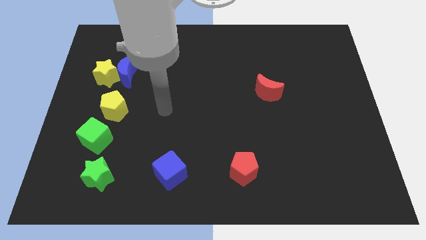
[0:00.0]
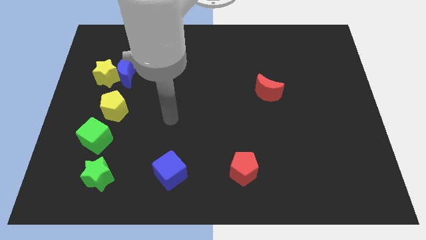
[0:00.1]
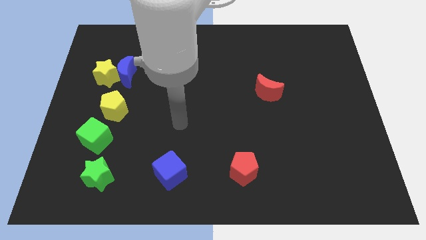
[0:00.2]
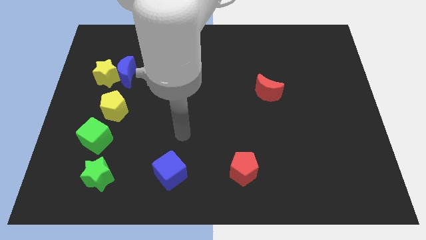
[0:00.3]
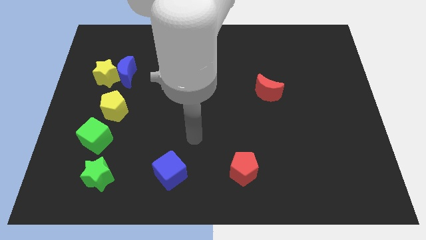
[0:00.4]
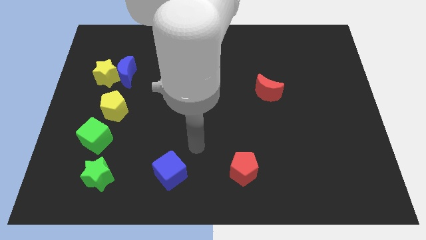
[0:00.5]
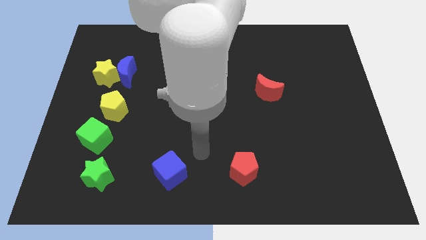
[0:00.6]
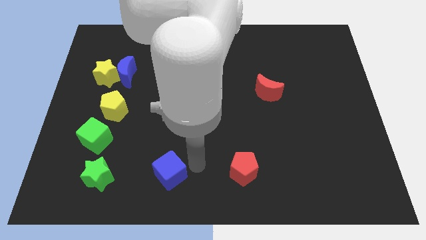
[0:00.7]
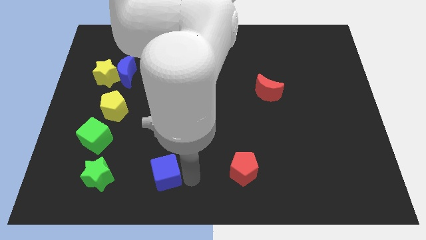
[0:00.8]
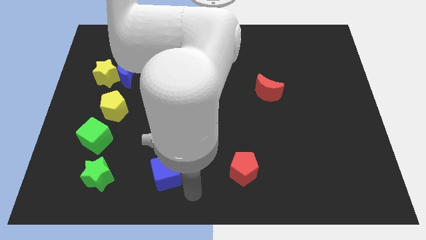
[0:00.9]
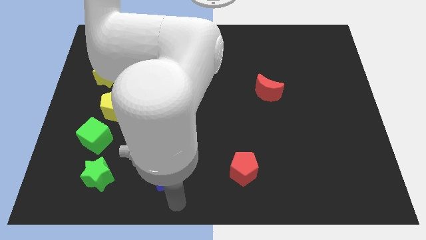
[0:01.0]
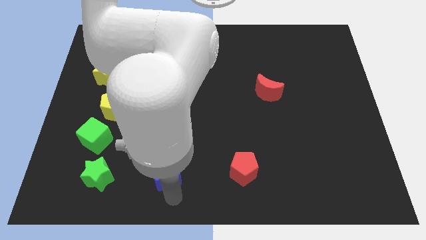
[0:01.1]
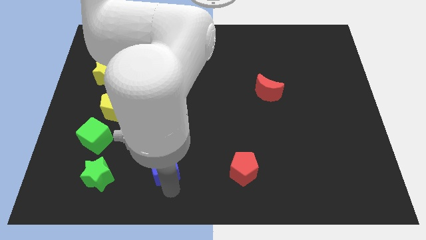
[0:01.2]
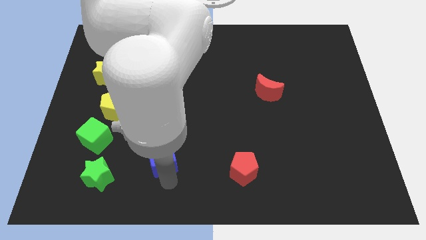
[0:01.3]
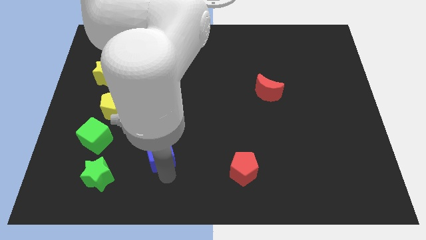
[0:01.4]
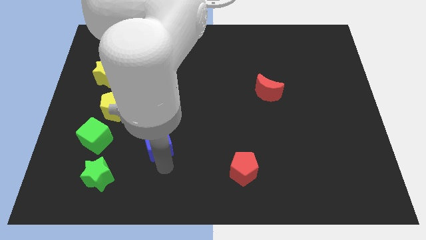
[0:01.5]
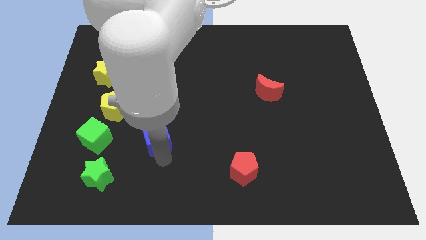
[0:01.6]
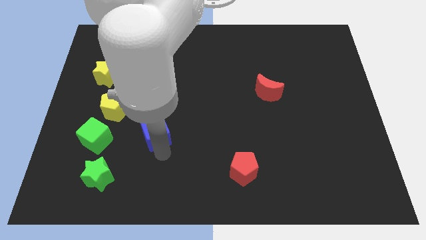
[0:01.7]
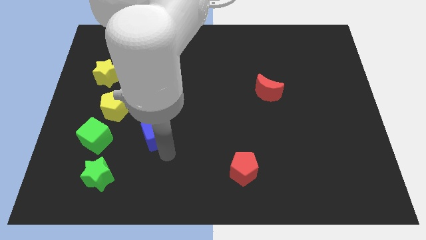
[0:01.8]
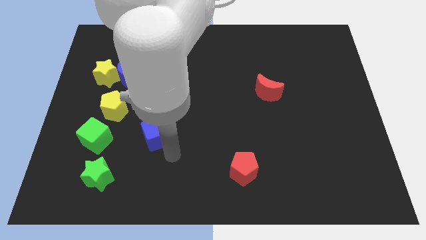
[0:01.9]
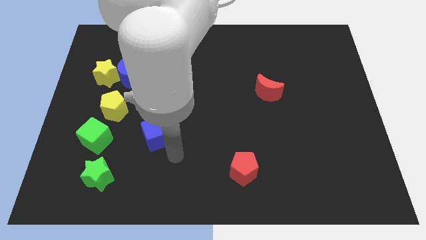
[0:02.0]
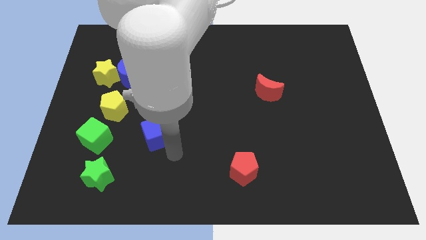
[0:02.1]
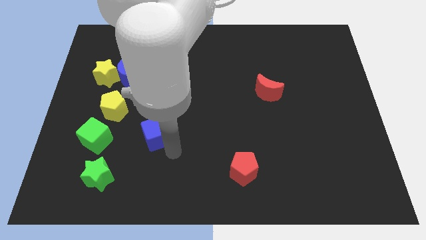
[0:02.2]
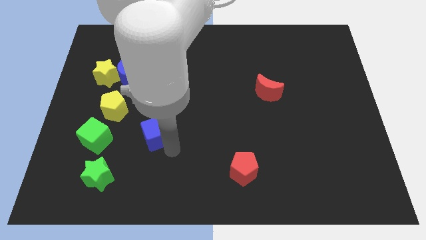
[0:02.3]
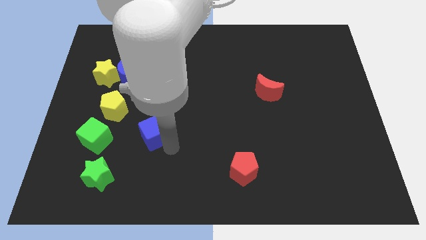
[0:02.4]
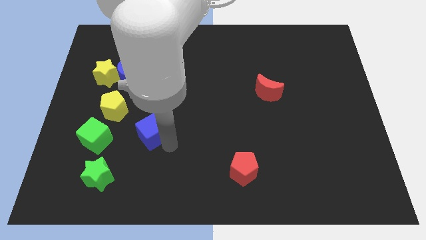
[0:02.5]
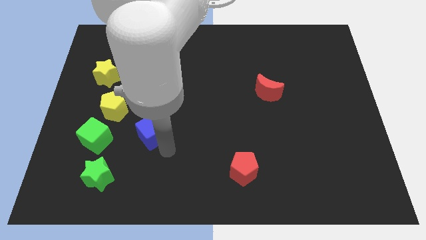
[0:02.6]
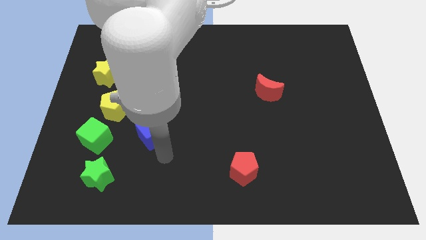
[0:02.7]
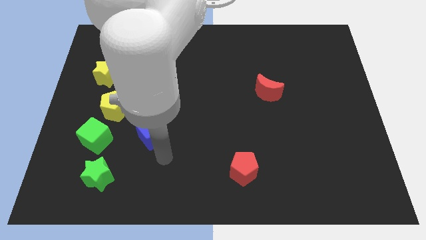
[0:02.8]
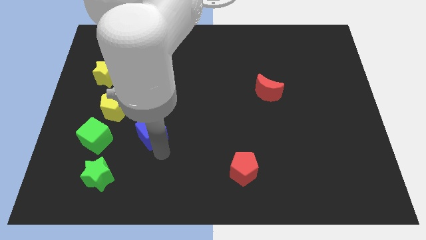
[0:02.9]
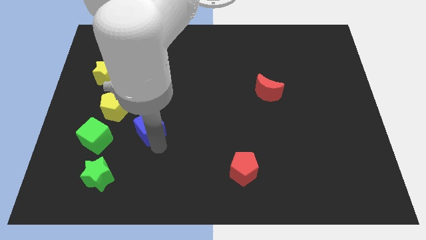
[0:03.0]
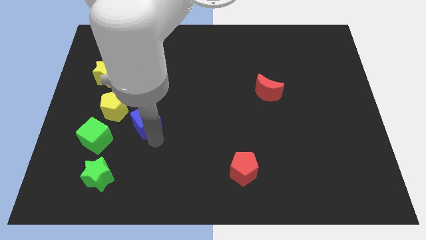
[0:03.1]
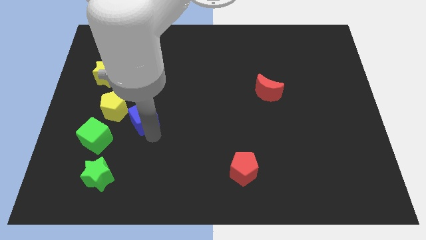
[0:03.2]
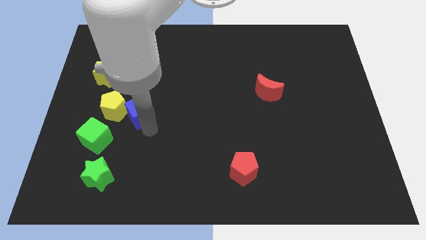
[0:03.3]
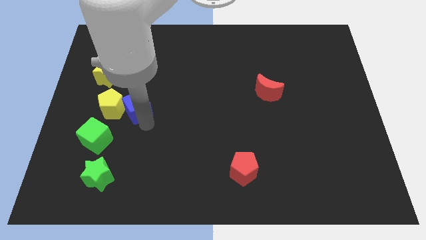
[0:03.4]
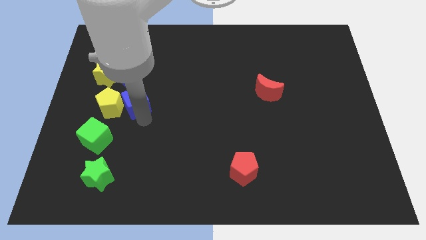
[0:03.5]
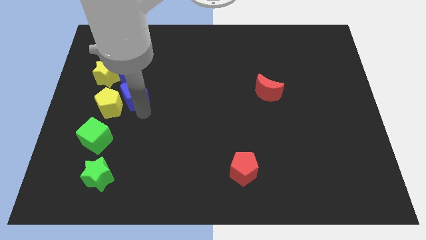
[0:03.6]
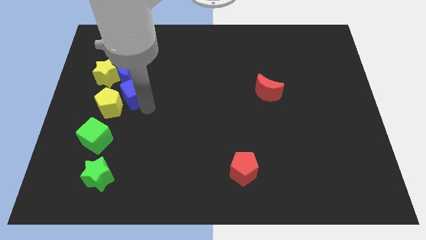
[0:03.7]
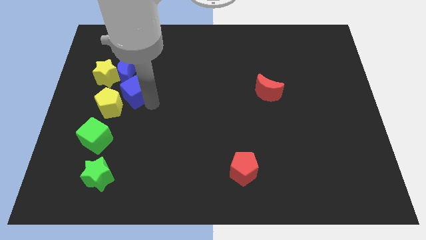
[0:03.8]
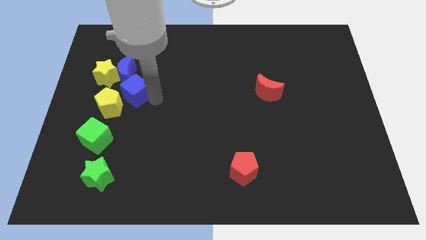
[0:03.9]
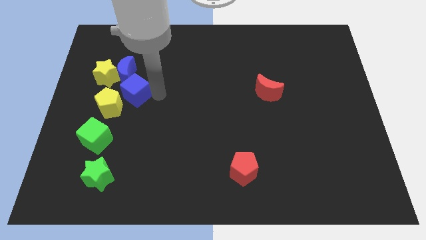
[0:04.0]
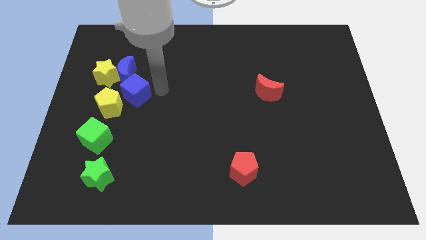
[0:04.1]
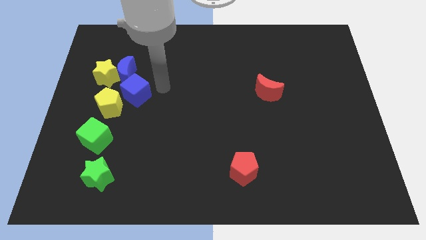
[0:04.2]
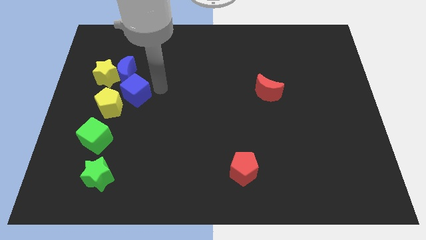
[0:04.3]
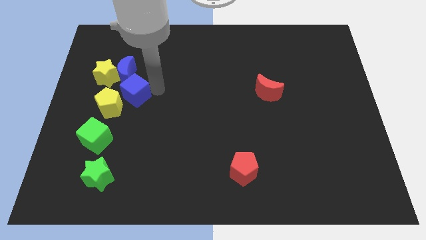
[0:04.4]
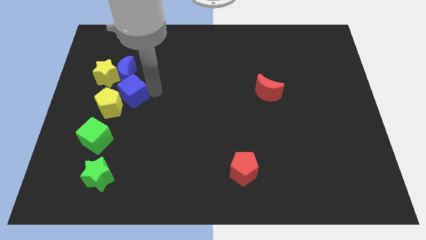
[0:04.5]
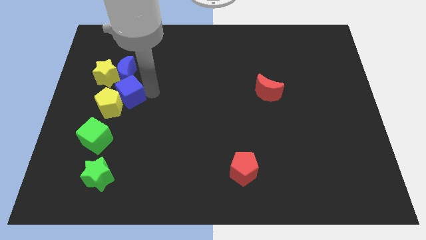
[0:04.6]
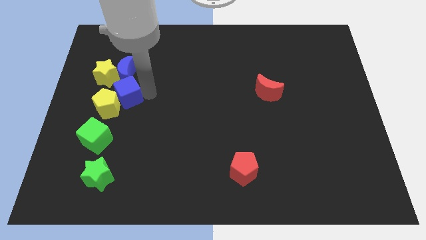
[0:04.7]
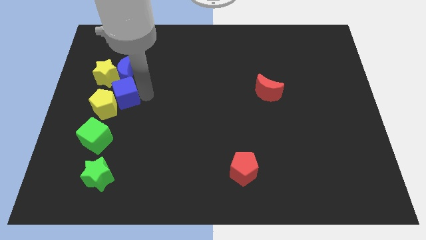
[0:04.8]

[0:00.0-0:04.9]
put the blue cube above the green cube

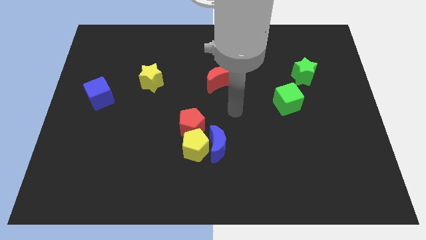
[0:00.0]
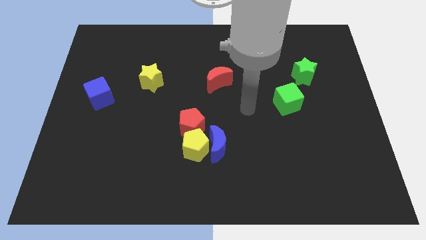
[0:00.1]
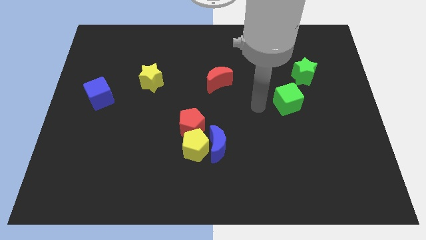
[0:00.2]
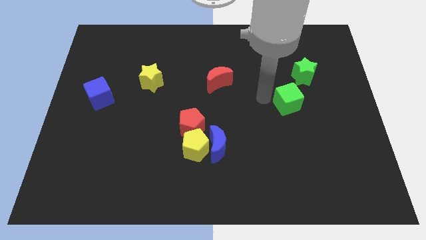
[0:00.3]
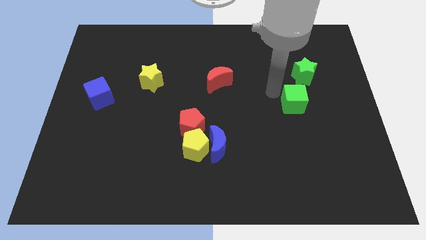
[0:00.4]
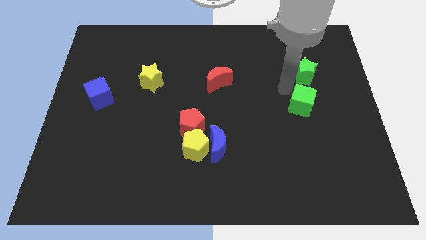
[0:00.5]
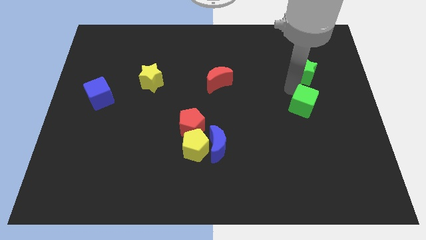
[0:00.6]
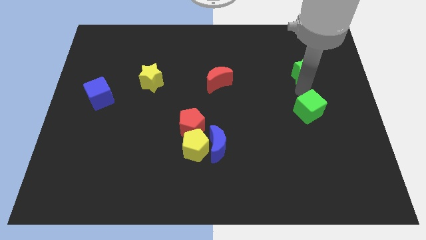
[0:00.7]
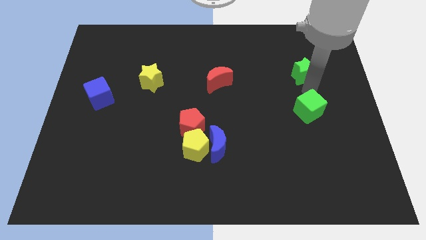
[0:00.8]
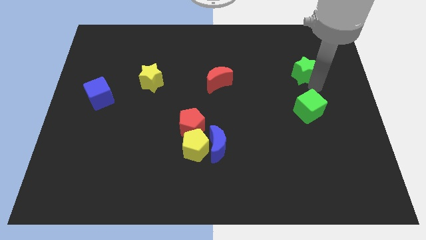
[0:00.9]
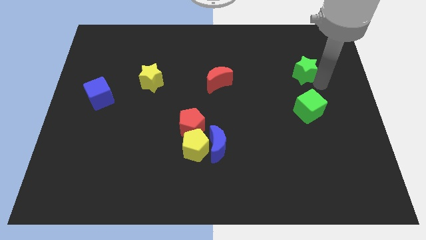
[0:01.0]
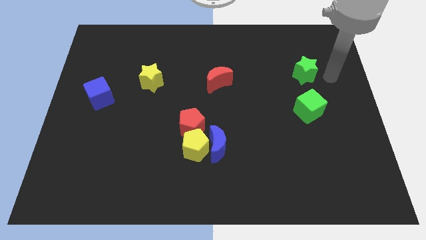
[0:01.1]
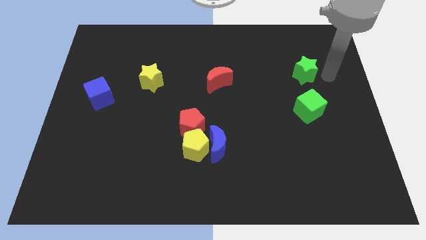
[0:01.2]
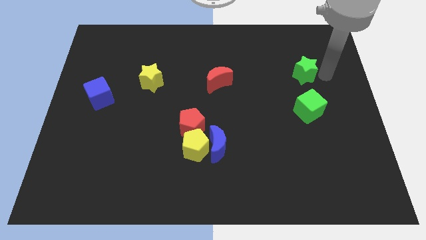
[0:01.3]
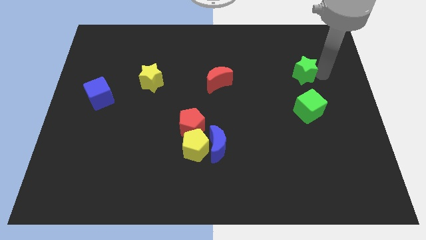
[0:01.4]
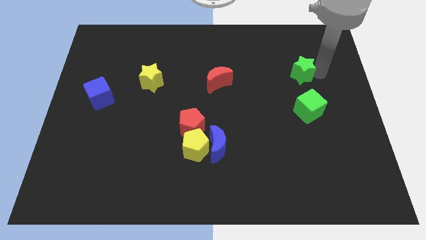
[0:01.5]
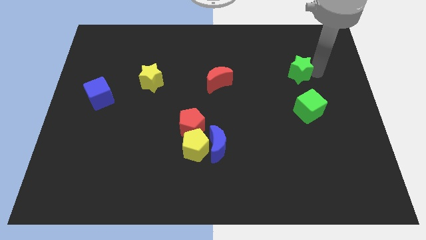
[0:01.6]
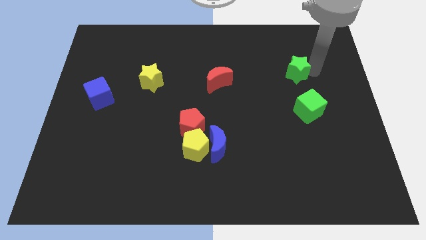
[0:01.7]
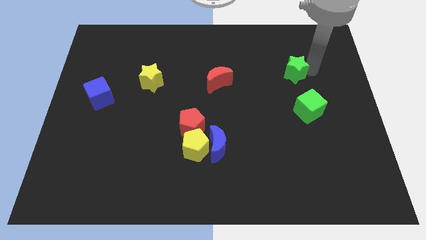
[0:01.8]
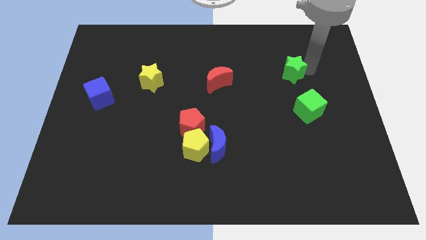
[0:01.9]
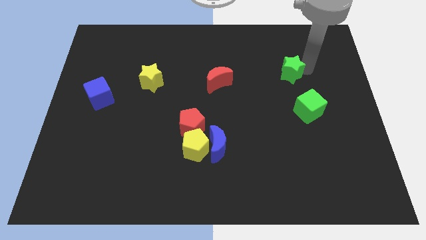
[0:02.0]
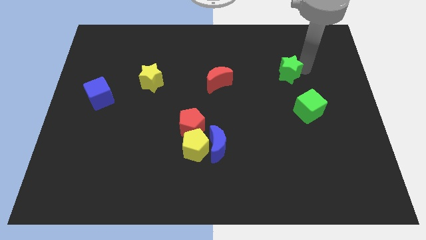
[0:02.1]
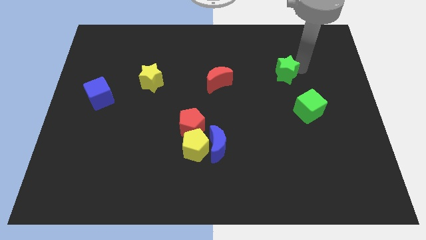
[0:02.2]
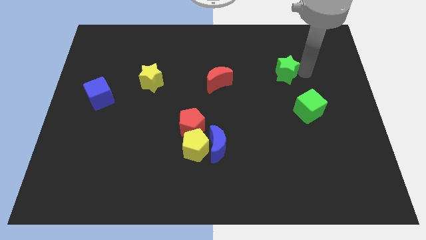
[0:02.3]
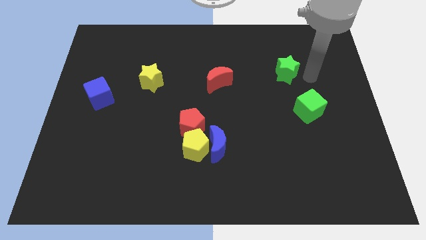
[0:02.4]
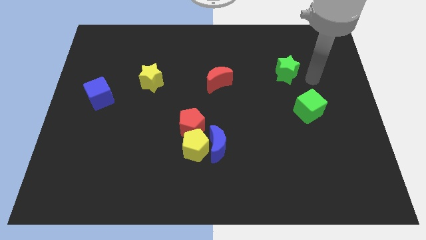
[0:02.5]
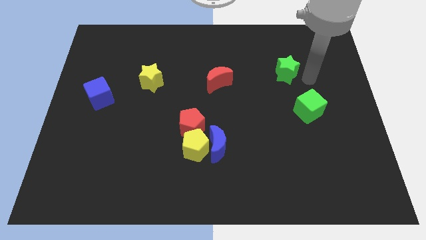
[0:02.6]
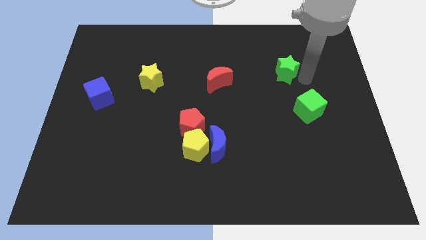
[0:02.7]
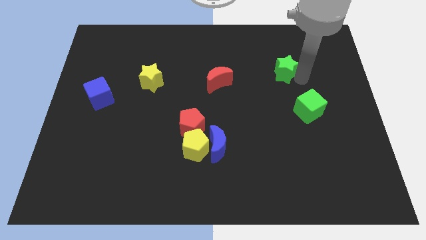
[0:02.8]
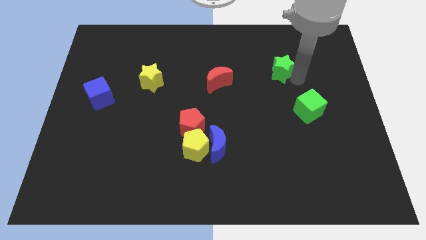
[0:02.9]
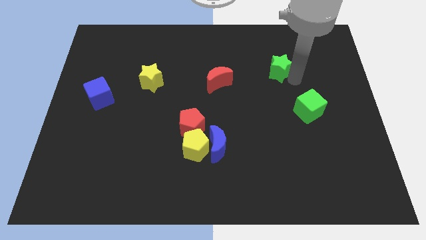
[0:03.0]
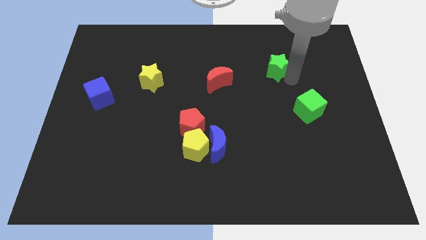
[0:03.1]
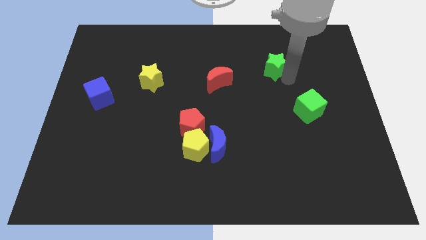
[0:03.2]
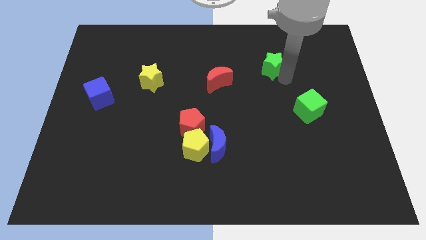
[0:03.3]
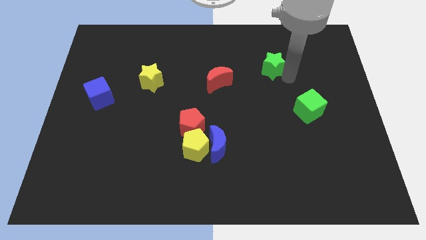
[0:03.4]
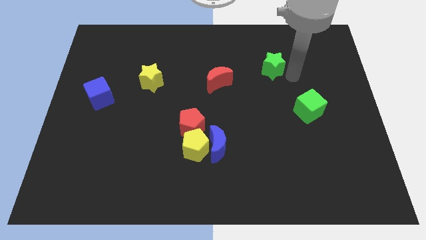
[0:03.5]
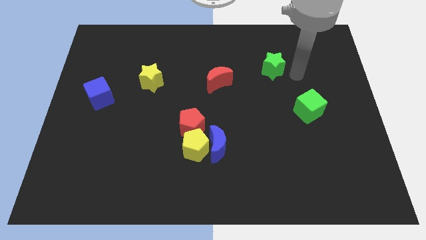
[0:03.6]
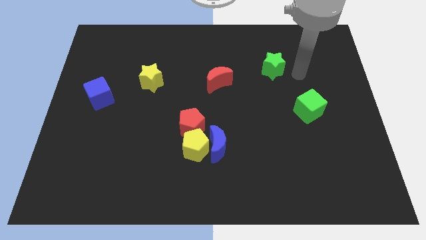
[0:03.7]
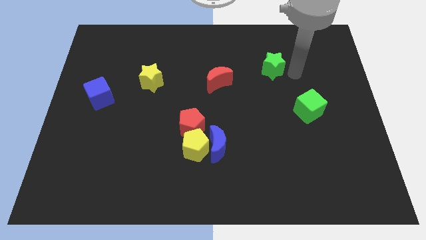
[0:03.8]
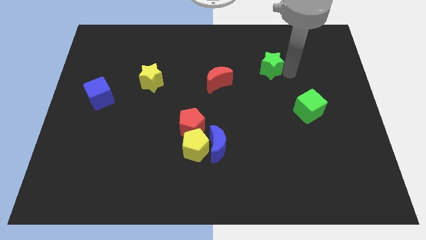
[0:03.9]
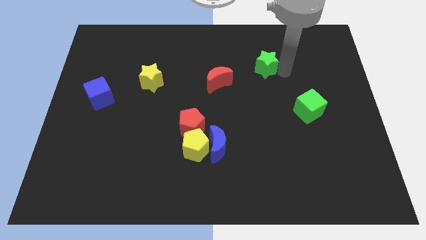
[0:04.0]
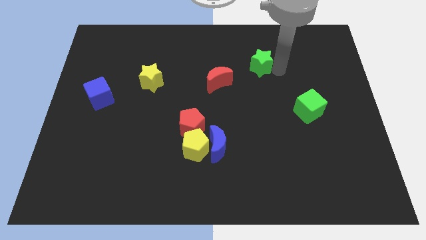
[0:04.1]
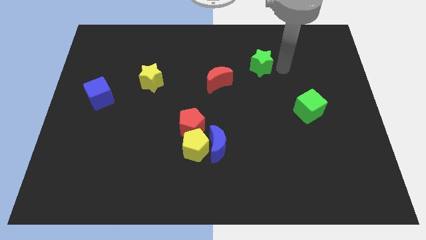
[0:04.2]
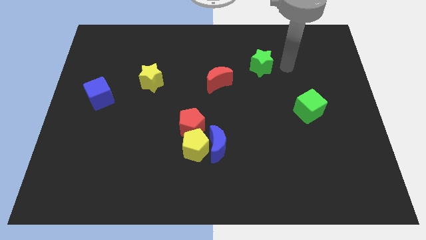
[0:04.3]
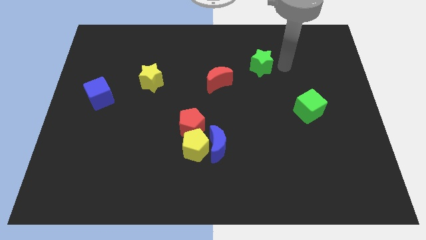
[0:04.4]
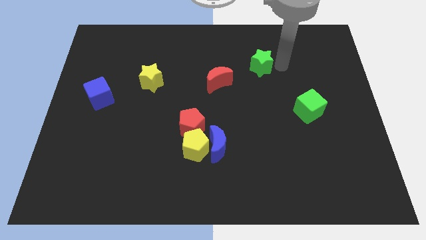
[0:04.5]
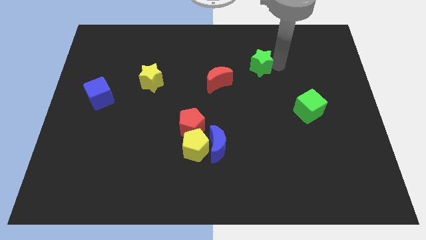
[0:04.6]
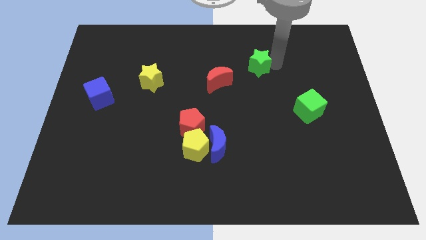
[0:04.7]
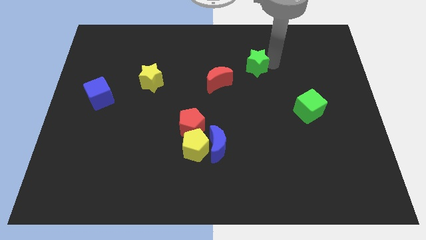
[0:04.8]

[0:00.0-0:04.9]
put the green star to the top right side of the red moon
